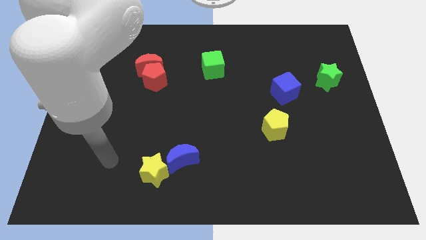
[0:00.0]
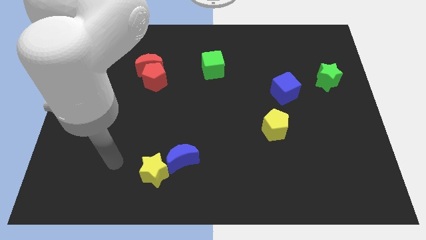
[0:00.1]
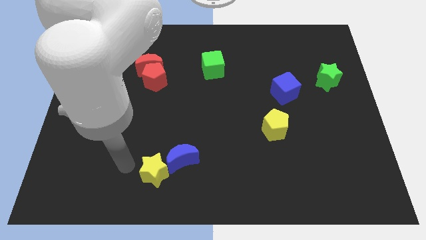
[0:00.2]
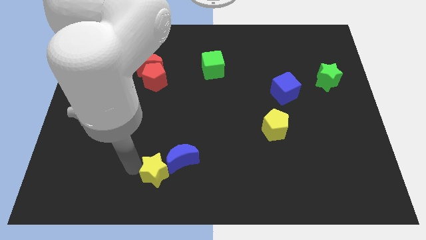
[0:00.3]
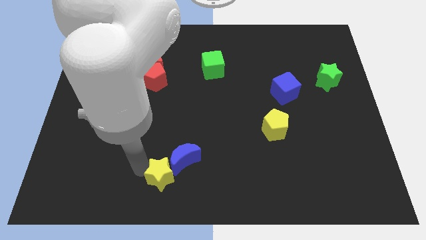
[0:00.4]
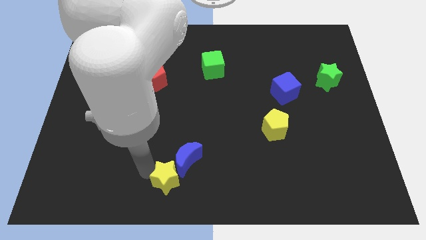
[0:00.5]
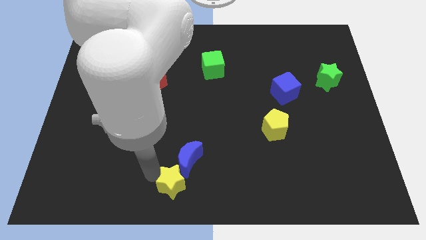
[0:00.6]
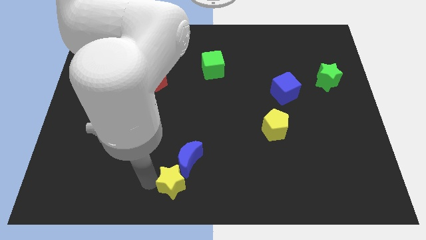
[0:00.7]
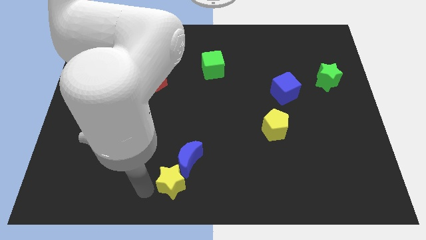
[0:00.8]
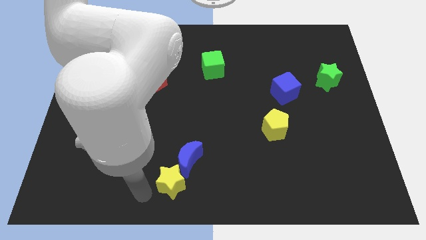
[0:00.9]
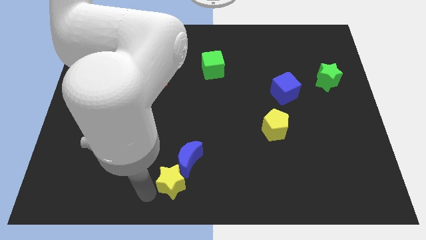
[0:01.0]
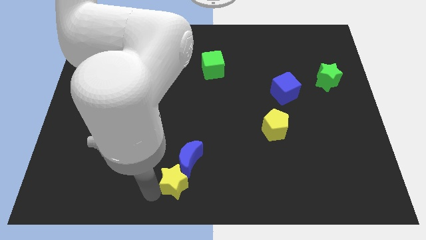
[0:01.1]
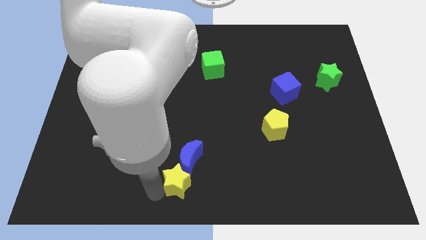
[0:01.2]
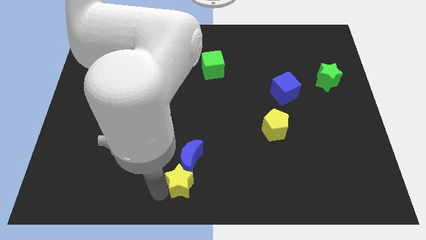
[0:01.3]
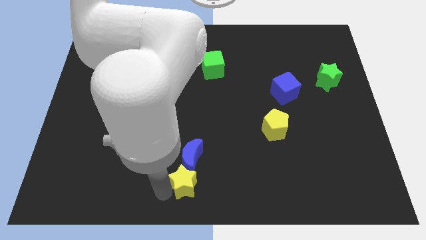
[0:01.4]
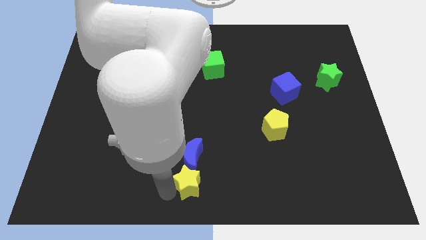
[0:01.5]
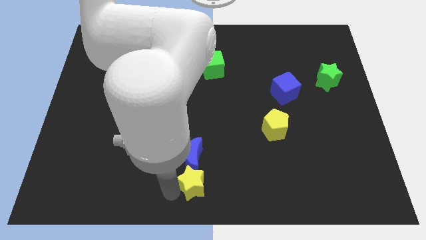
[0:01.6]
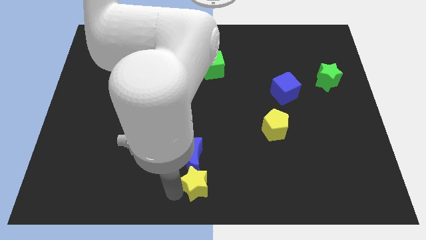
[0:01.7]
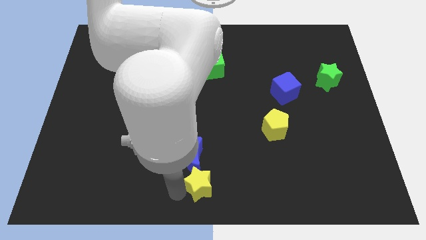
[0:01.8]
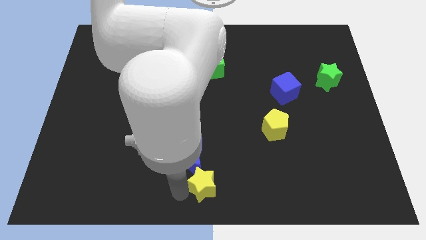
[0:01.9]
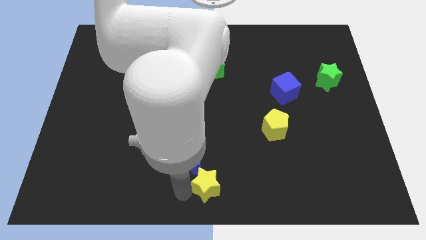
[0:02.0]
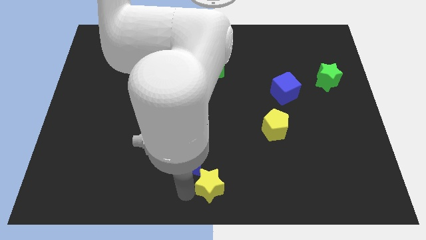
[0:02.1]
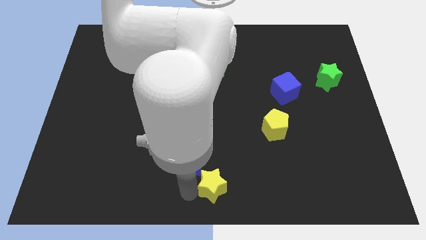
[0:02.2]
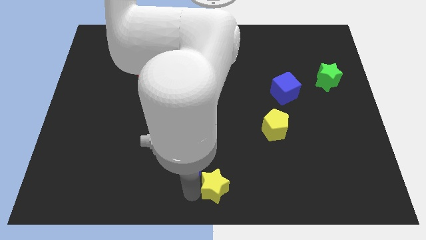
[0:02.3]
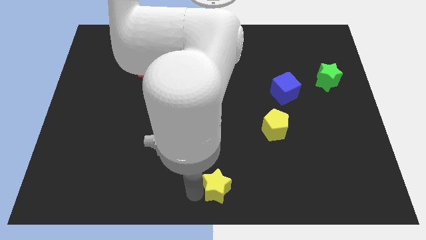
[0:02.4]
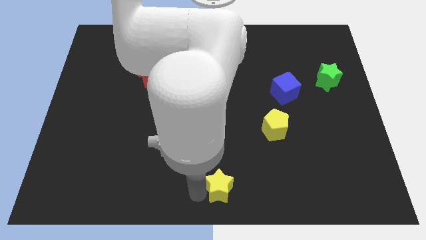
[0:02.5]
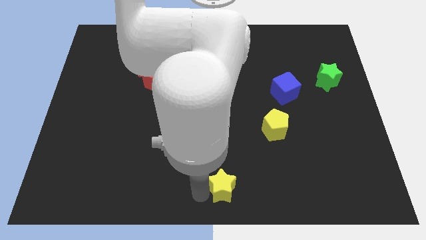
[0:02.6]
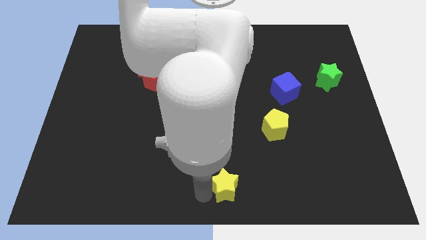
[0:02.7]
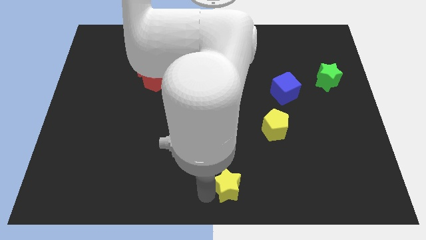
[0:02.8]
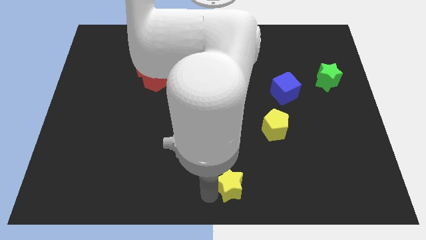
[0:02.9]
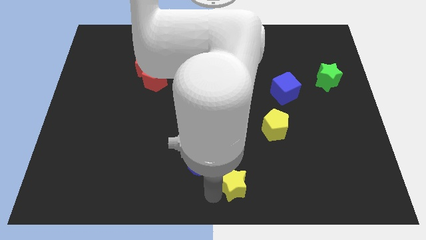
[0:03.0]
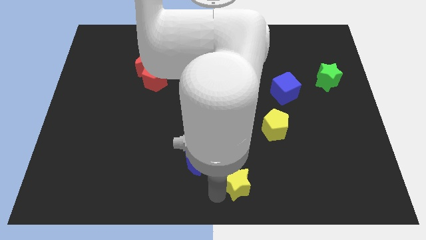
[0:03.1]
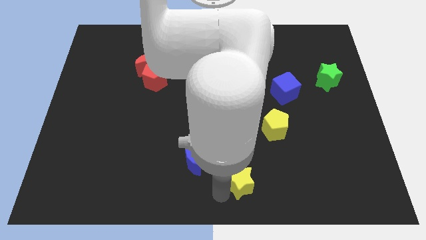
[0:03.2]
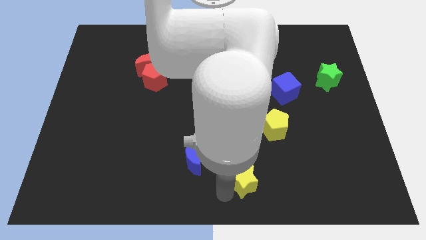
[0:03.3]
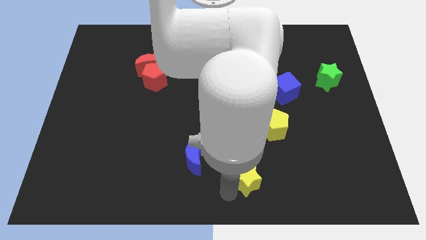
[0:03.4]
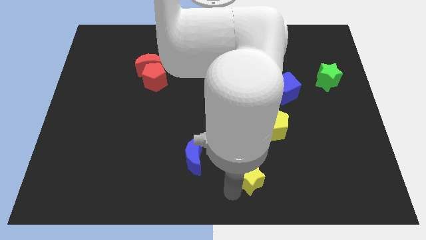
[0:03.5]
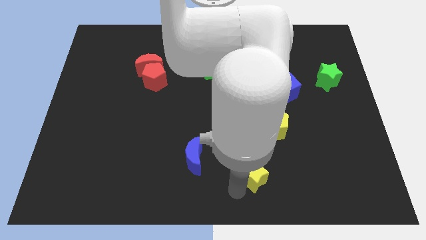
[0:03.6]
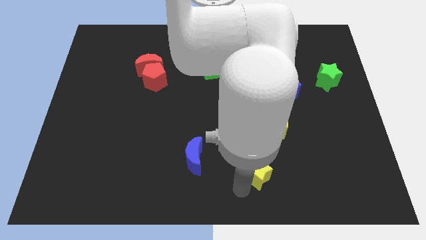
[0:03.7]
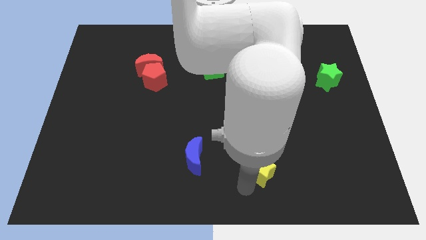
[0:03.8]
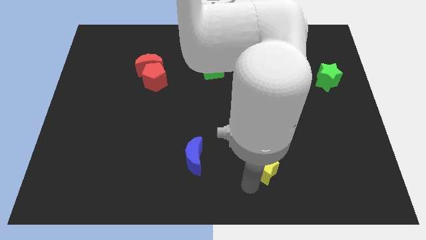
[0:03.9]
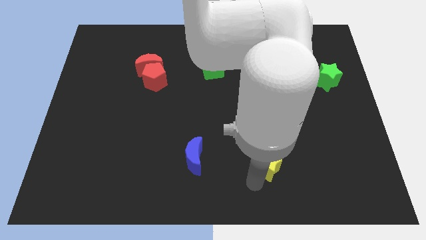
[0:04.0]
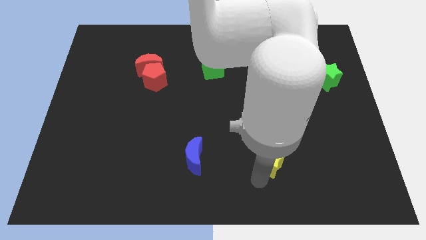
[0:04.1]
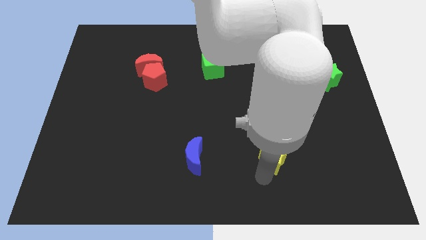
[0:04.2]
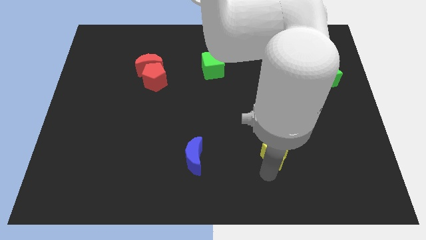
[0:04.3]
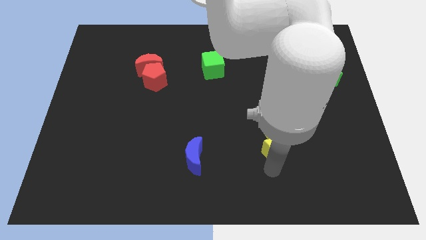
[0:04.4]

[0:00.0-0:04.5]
put the yellow star next to the yellow pentagon

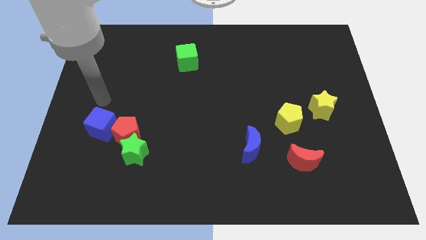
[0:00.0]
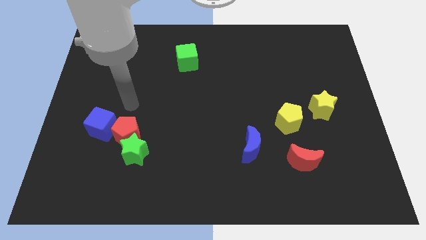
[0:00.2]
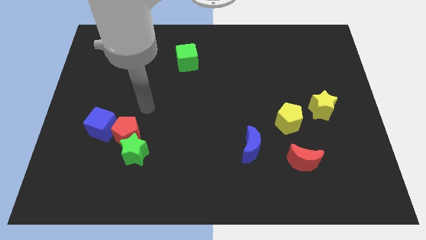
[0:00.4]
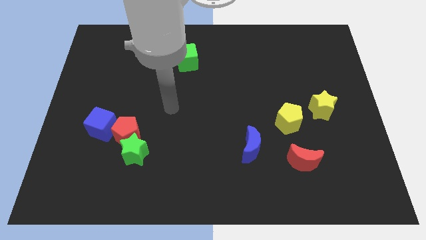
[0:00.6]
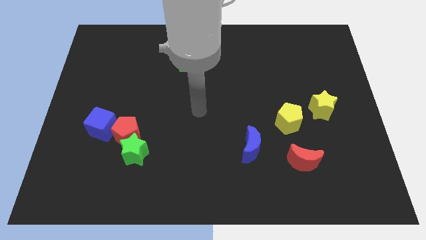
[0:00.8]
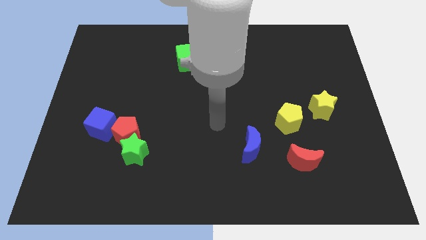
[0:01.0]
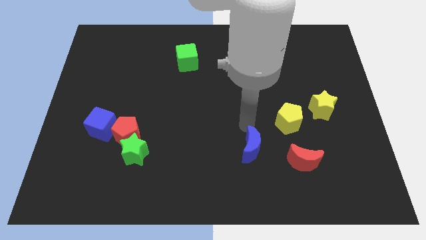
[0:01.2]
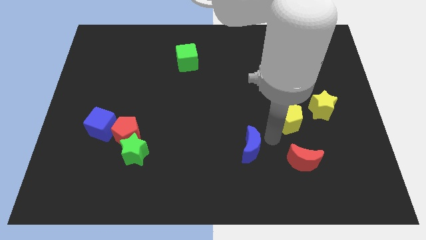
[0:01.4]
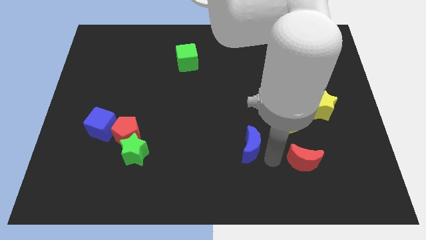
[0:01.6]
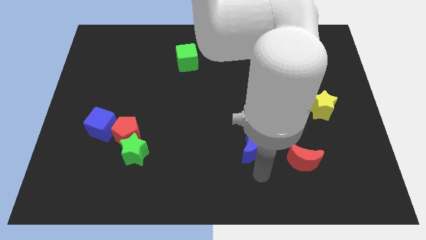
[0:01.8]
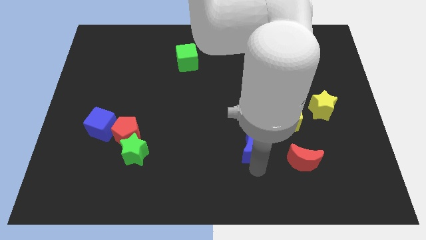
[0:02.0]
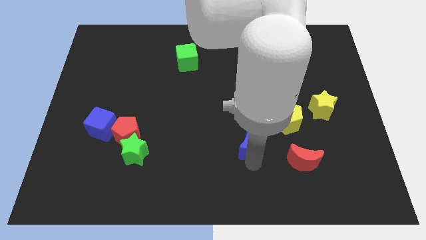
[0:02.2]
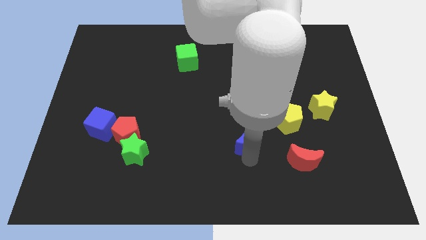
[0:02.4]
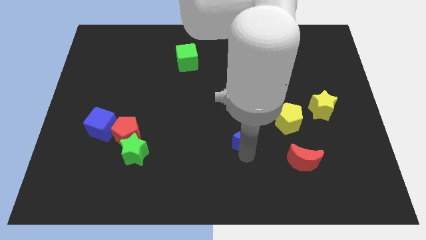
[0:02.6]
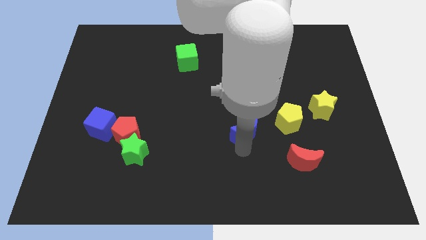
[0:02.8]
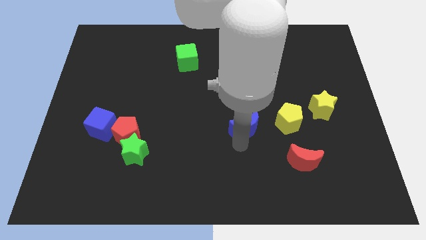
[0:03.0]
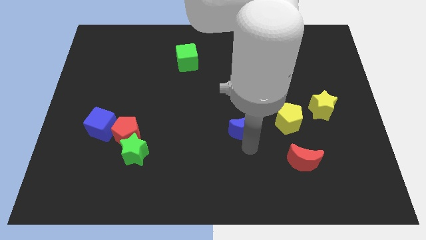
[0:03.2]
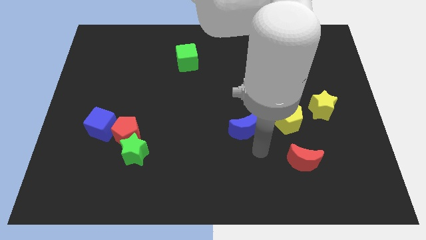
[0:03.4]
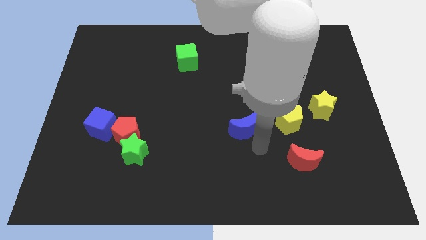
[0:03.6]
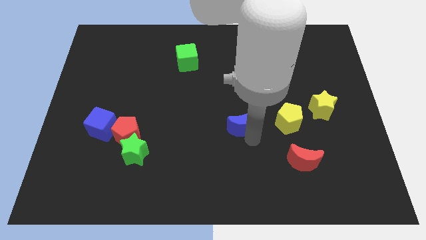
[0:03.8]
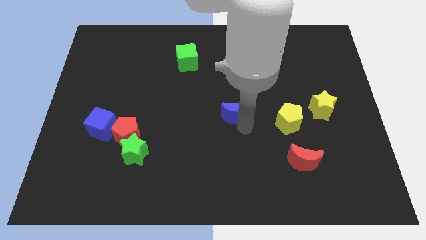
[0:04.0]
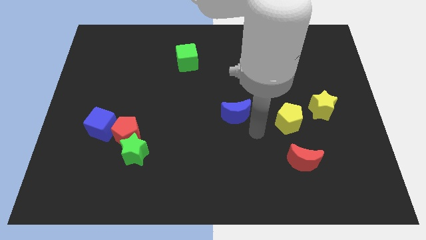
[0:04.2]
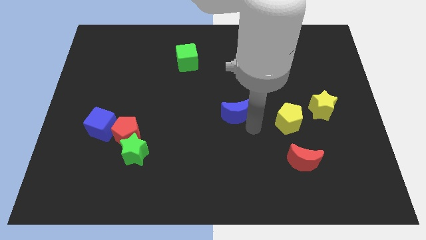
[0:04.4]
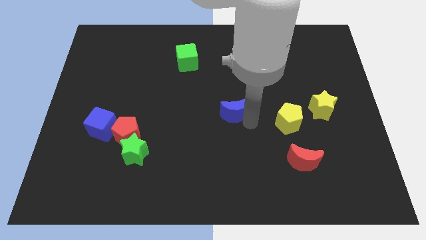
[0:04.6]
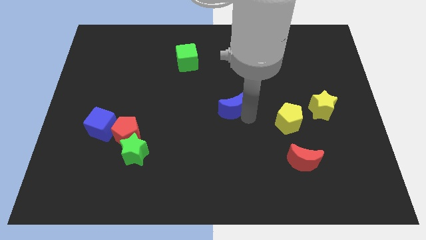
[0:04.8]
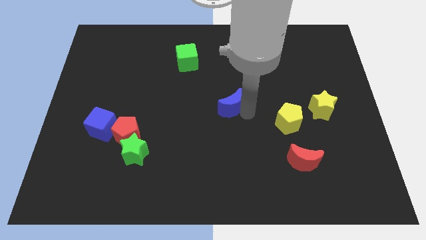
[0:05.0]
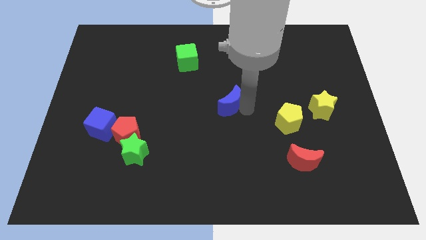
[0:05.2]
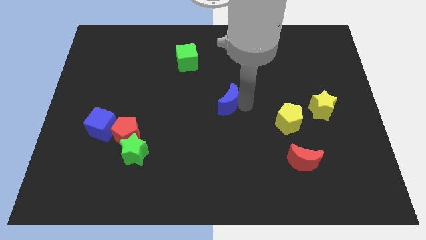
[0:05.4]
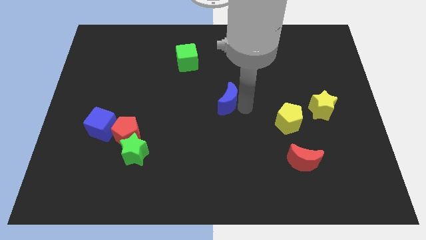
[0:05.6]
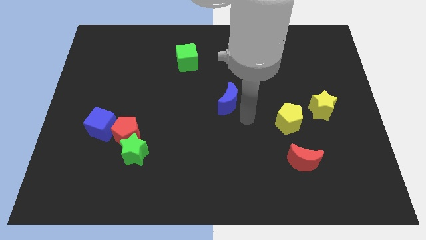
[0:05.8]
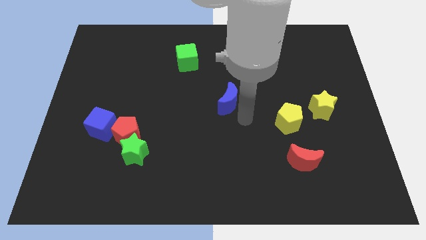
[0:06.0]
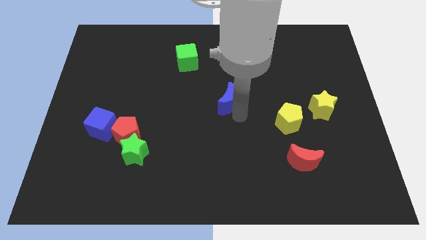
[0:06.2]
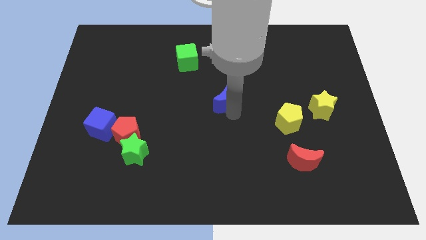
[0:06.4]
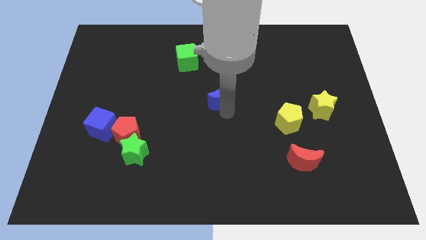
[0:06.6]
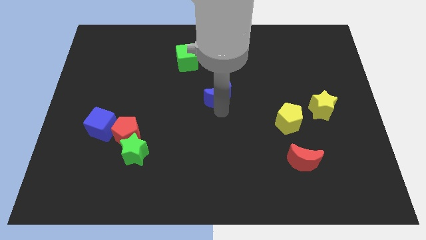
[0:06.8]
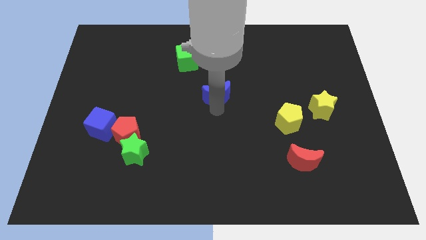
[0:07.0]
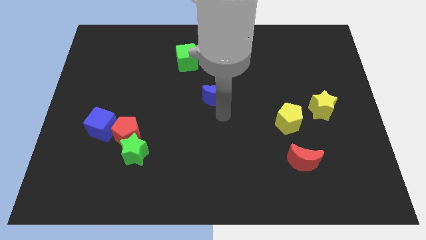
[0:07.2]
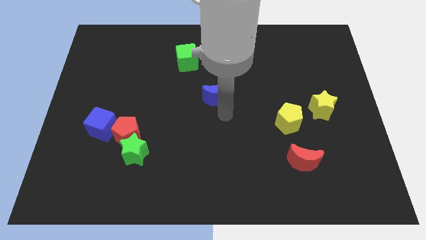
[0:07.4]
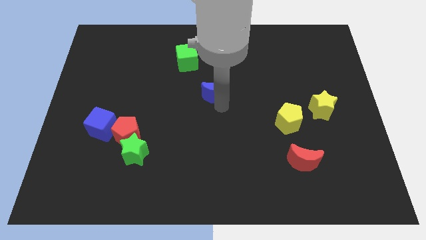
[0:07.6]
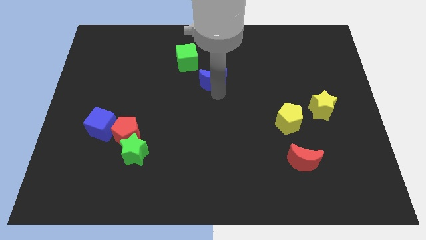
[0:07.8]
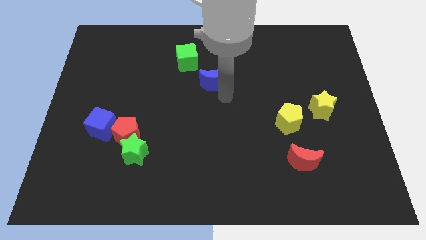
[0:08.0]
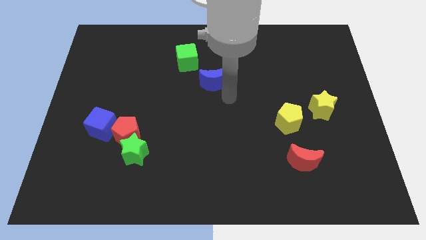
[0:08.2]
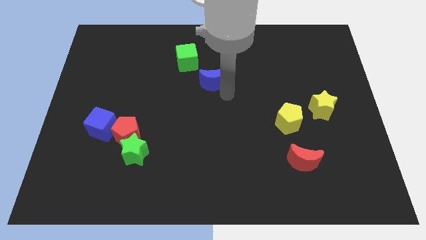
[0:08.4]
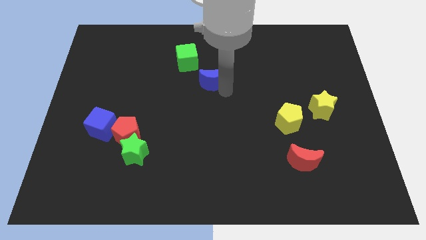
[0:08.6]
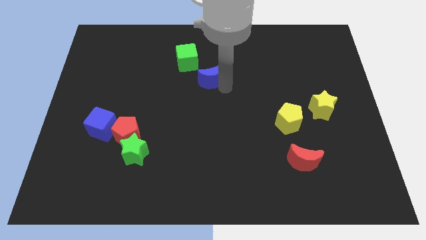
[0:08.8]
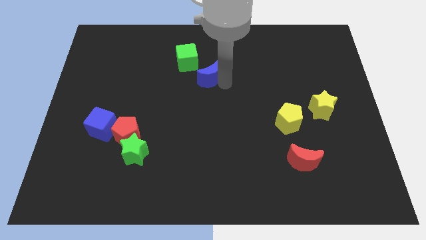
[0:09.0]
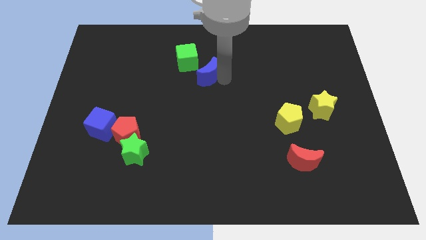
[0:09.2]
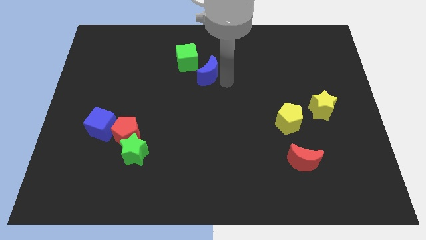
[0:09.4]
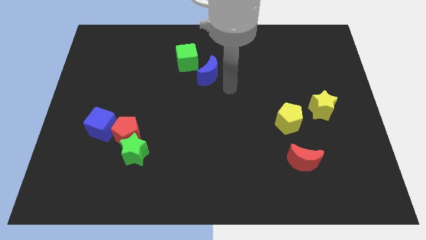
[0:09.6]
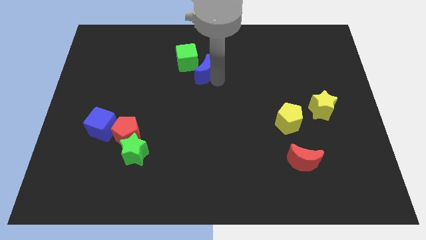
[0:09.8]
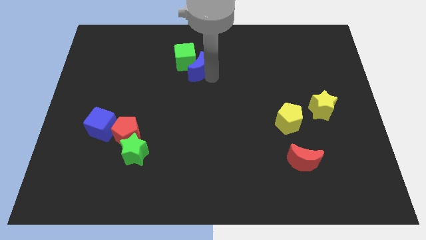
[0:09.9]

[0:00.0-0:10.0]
move the blue moon towards the green cube
